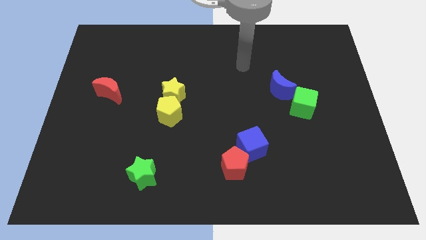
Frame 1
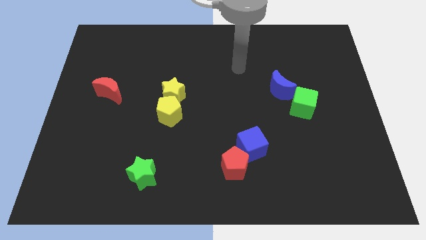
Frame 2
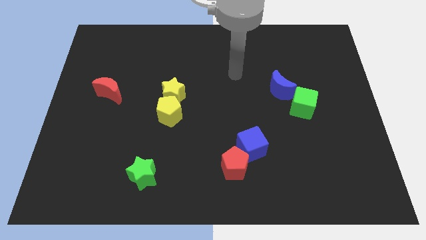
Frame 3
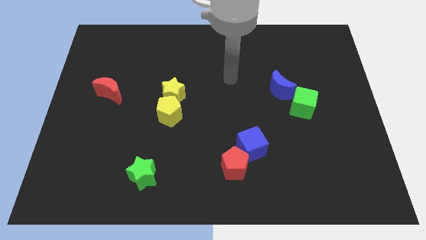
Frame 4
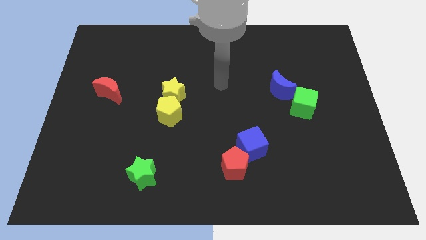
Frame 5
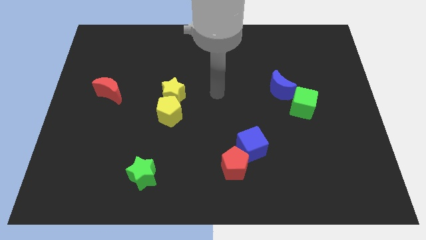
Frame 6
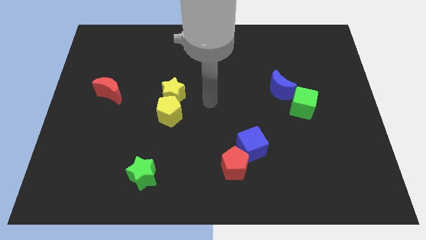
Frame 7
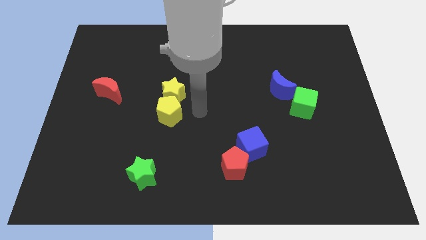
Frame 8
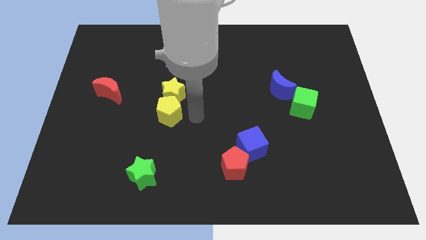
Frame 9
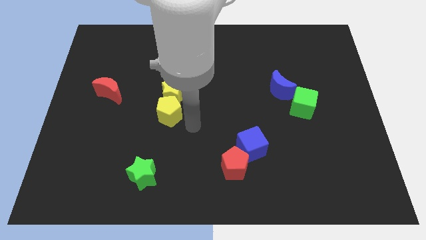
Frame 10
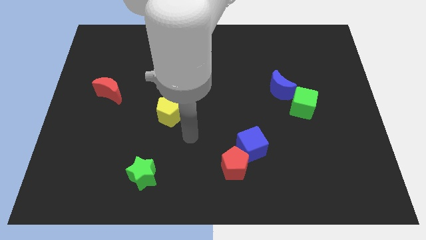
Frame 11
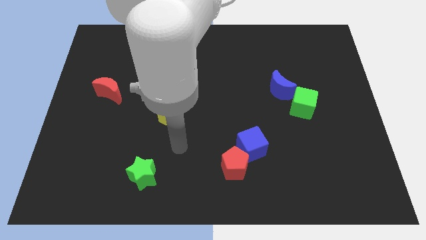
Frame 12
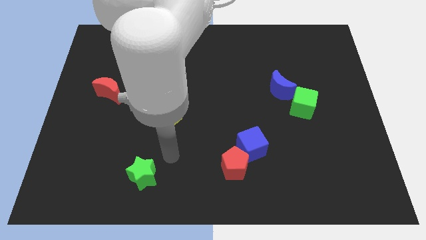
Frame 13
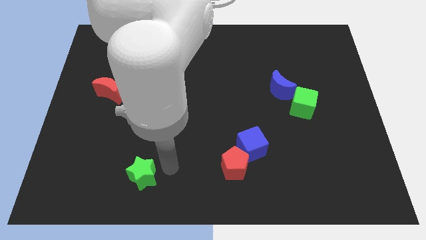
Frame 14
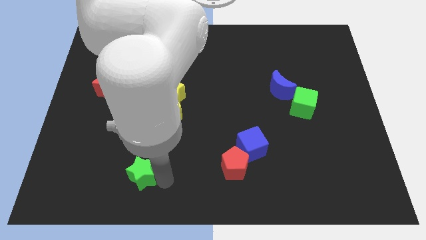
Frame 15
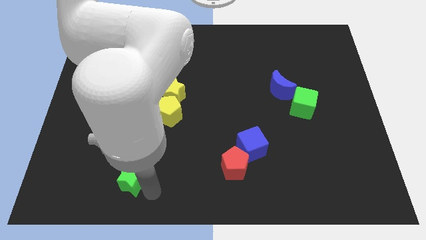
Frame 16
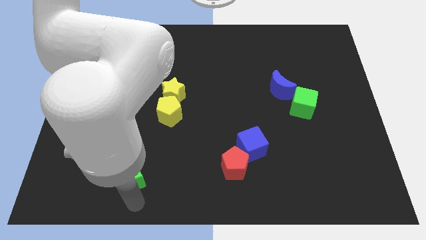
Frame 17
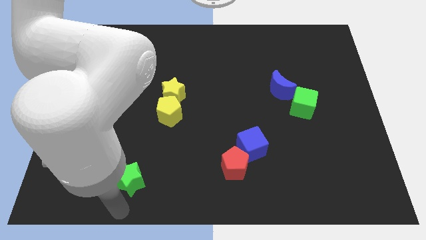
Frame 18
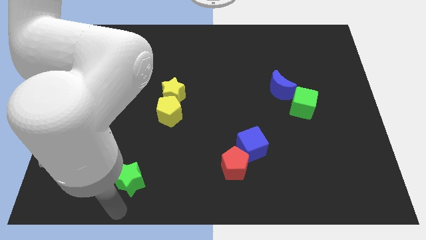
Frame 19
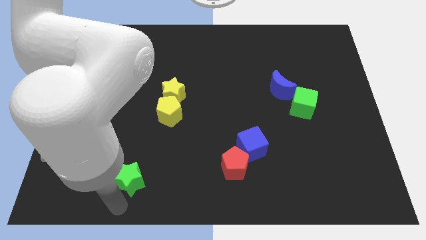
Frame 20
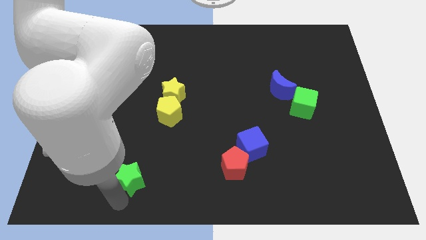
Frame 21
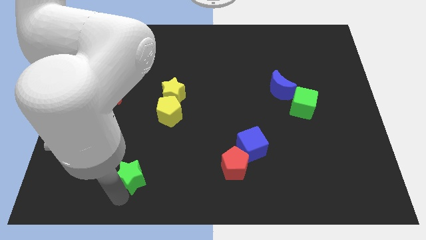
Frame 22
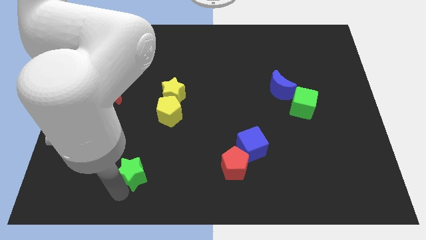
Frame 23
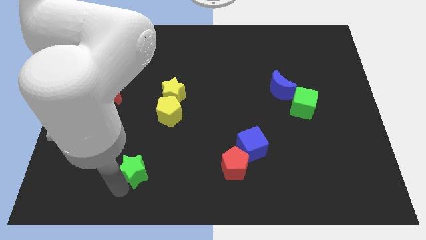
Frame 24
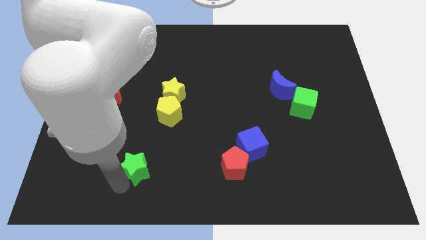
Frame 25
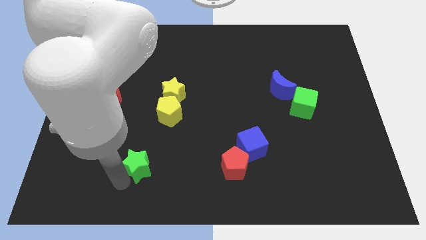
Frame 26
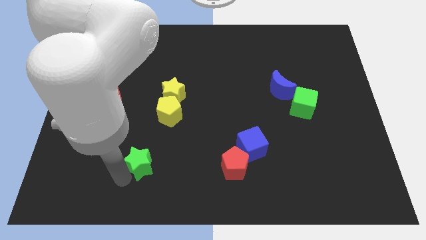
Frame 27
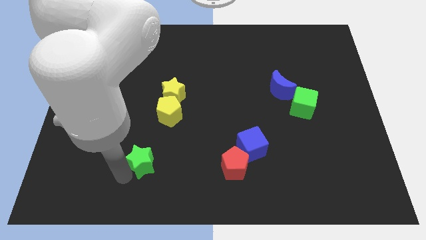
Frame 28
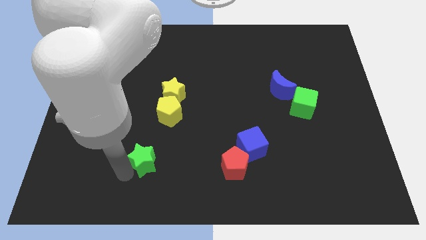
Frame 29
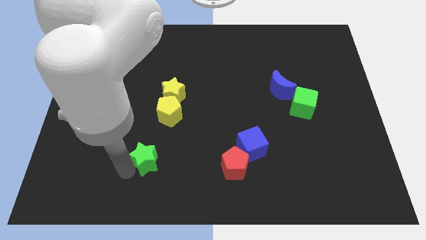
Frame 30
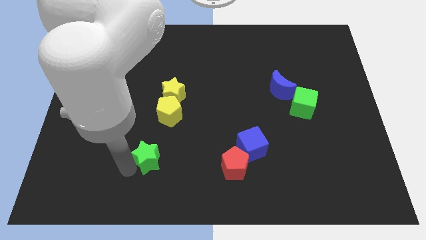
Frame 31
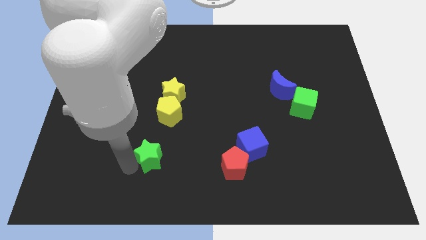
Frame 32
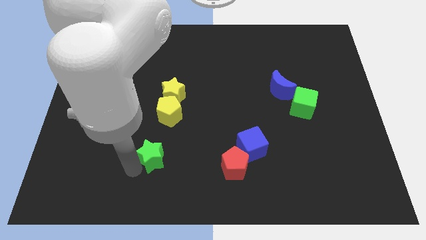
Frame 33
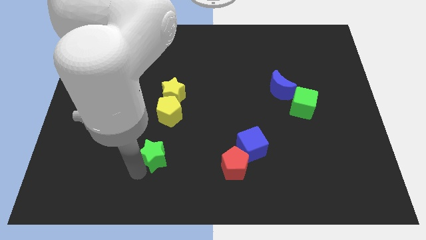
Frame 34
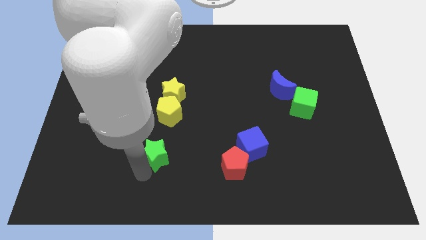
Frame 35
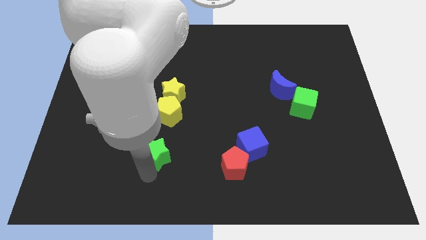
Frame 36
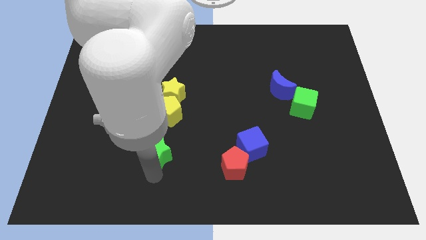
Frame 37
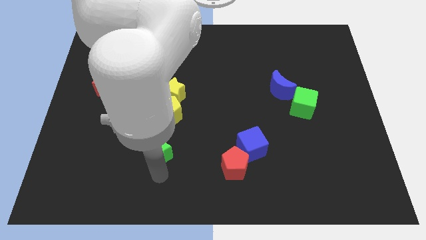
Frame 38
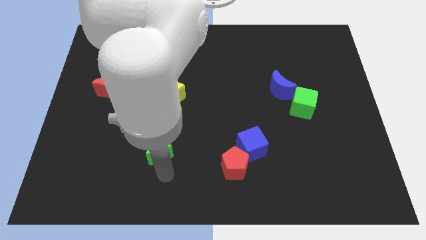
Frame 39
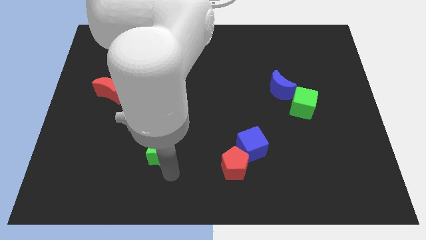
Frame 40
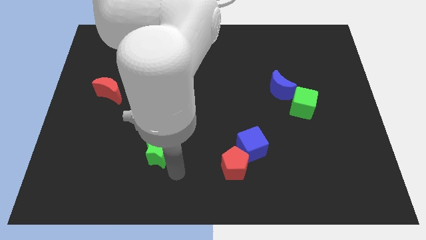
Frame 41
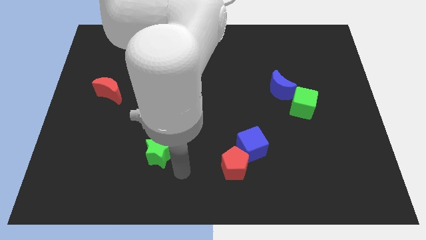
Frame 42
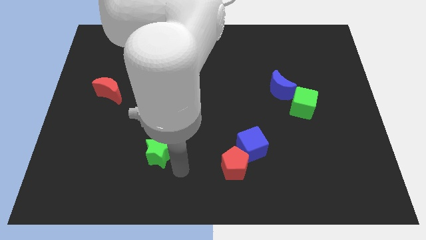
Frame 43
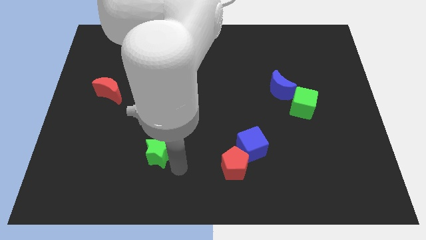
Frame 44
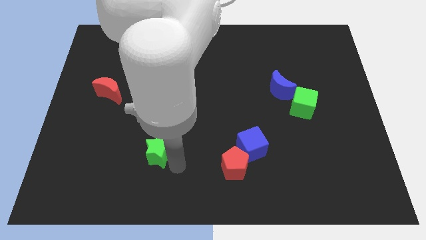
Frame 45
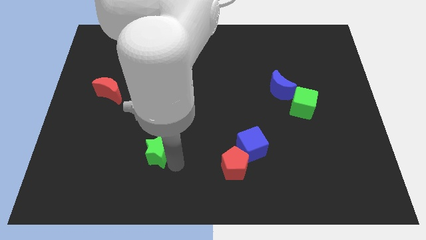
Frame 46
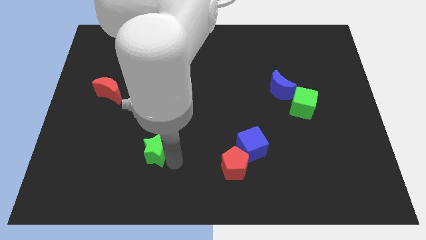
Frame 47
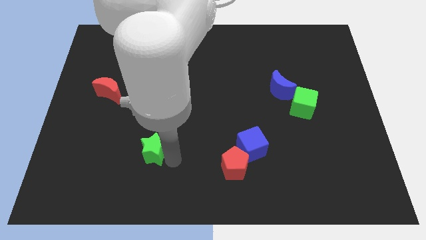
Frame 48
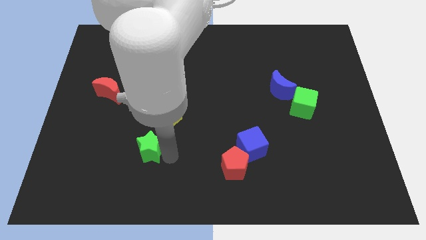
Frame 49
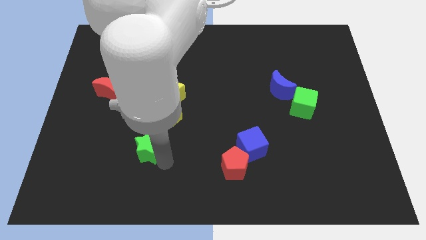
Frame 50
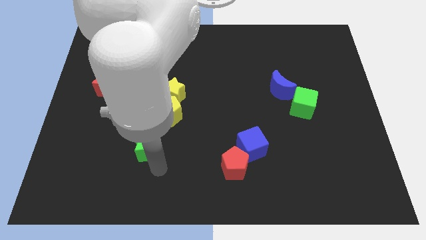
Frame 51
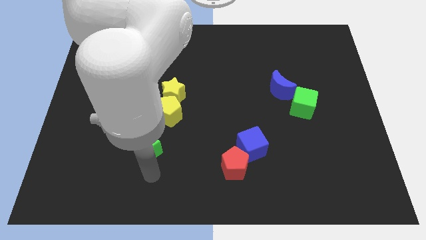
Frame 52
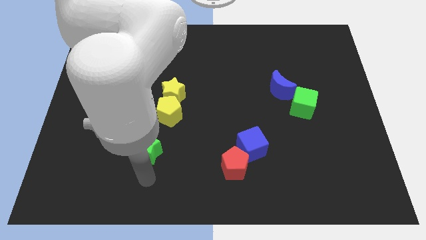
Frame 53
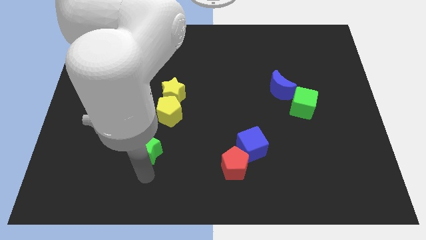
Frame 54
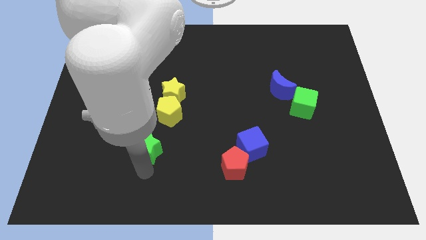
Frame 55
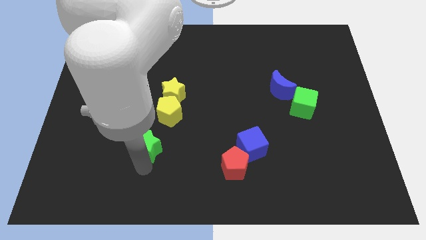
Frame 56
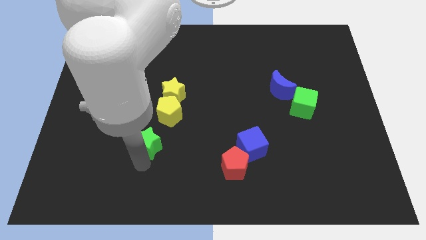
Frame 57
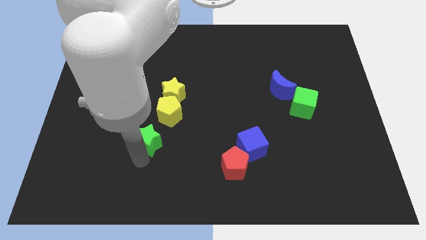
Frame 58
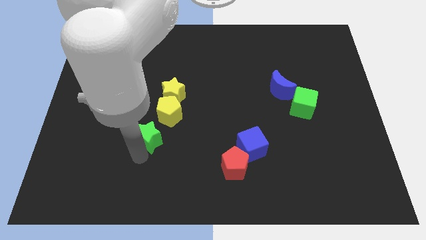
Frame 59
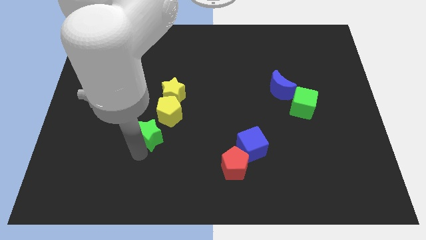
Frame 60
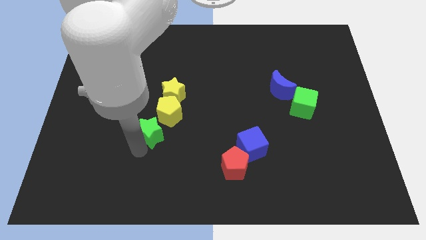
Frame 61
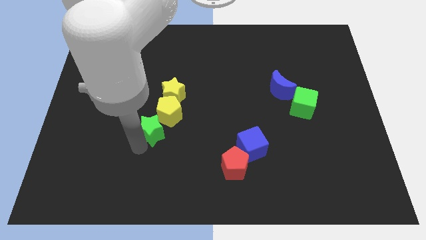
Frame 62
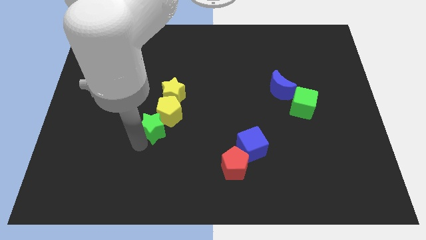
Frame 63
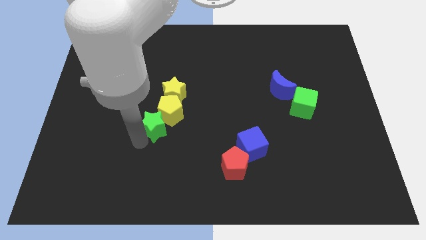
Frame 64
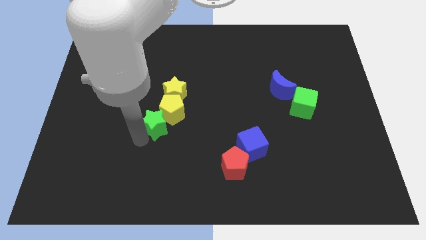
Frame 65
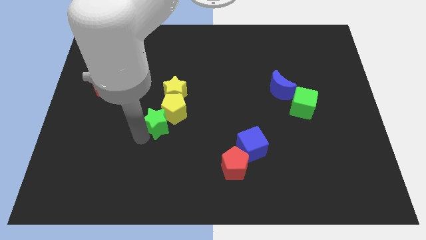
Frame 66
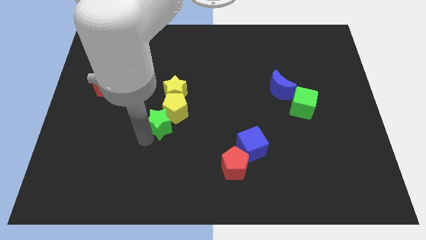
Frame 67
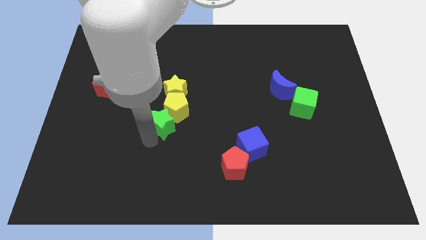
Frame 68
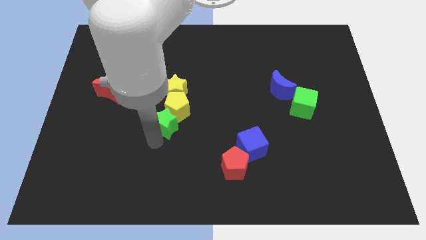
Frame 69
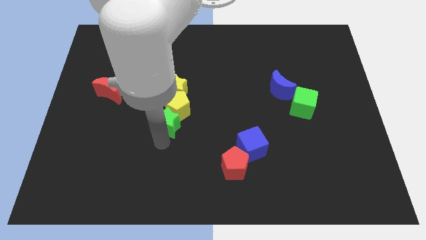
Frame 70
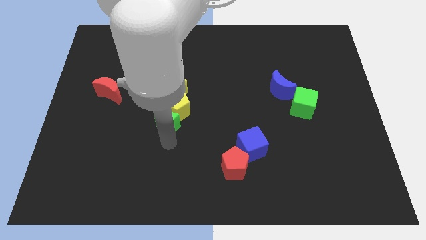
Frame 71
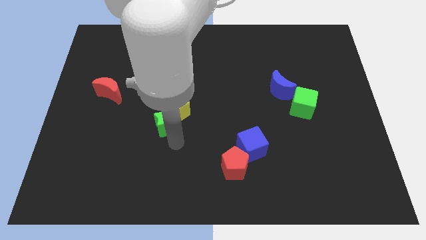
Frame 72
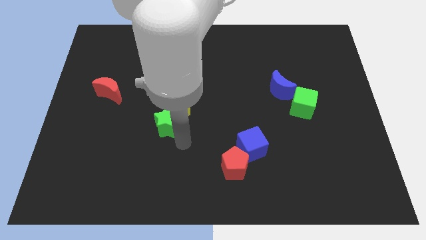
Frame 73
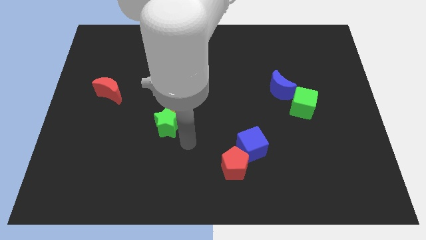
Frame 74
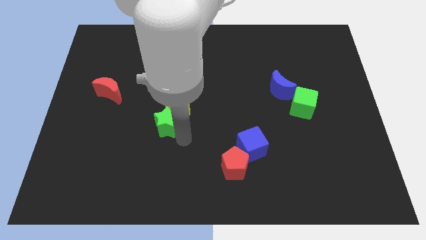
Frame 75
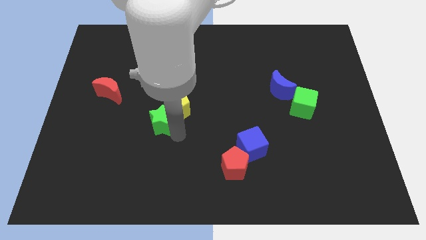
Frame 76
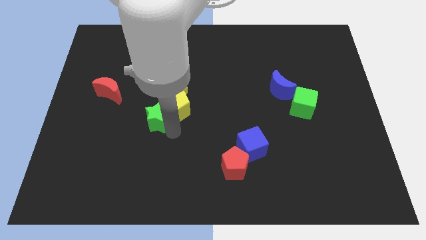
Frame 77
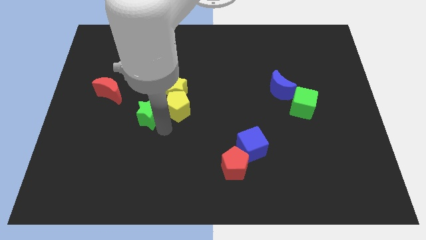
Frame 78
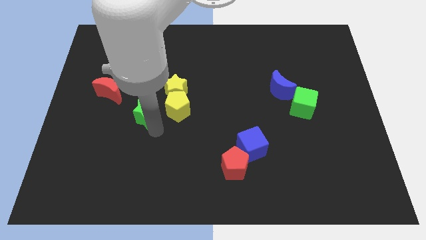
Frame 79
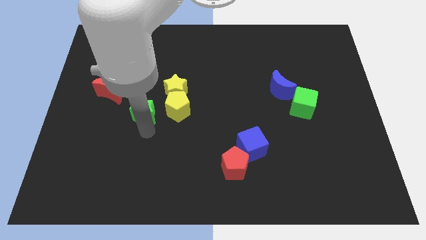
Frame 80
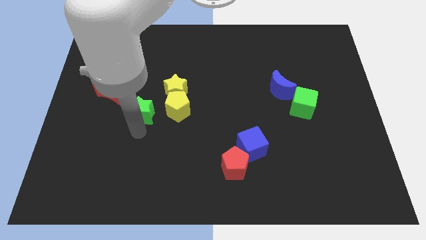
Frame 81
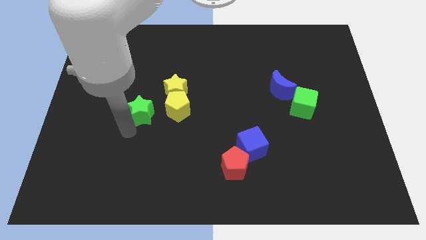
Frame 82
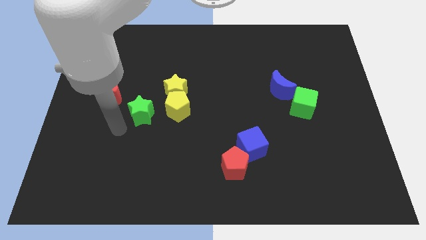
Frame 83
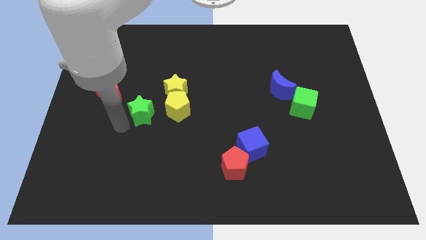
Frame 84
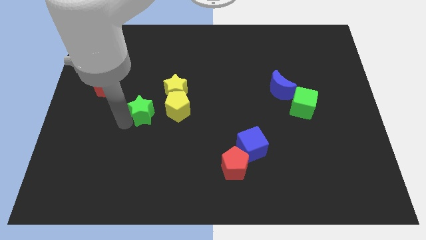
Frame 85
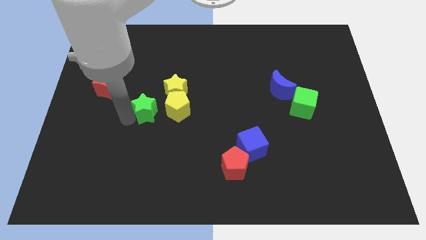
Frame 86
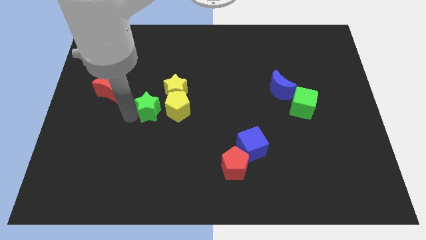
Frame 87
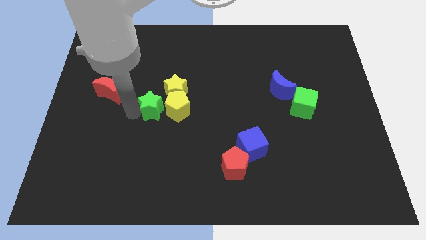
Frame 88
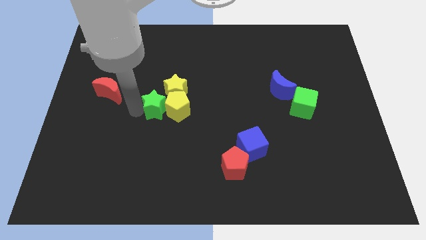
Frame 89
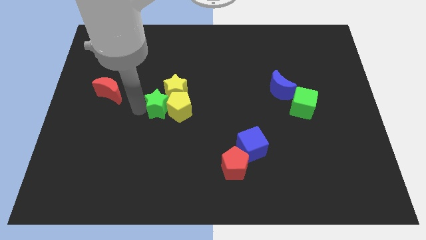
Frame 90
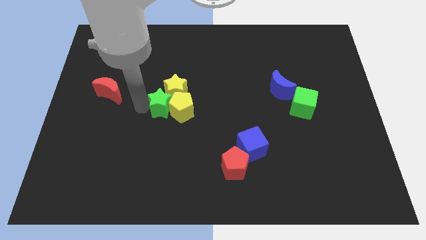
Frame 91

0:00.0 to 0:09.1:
push the green star next to the yellow star
